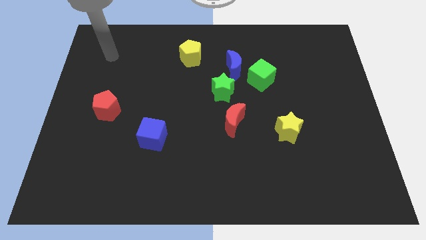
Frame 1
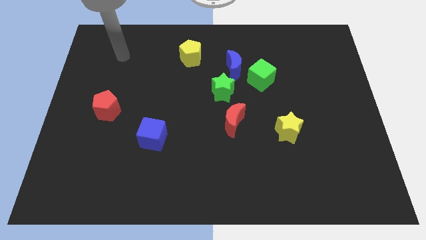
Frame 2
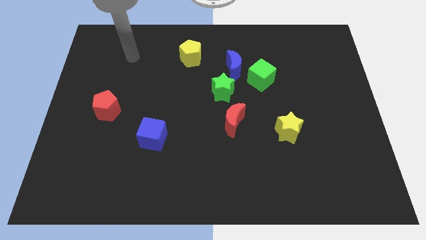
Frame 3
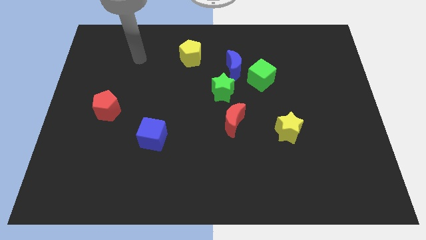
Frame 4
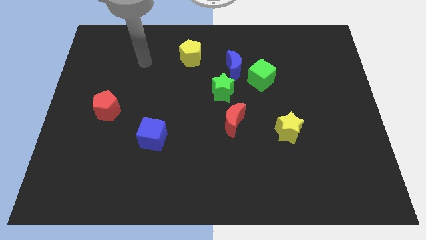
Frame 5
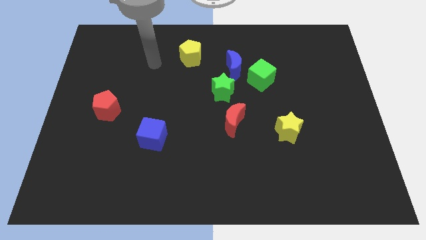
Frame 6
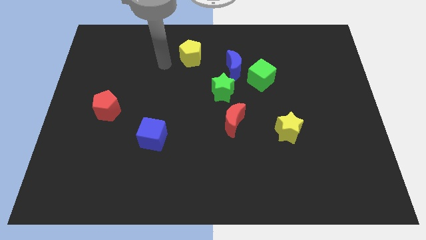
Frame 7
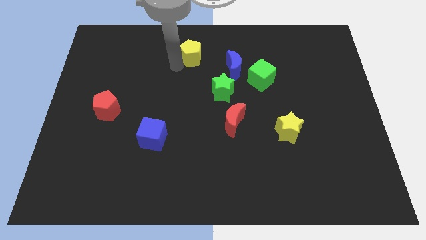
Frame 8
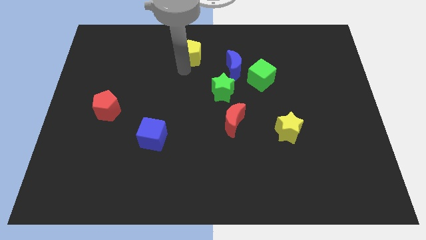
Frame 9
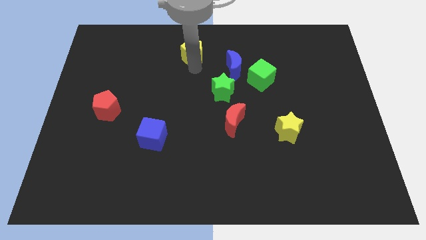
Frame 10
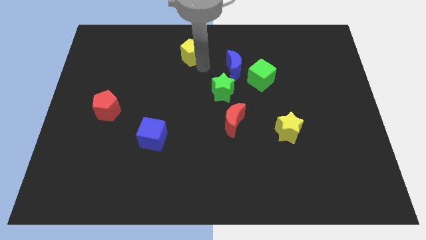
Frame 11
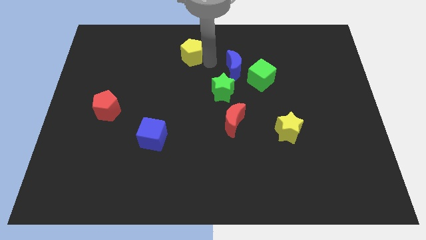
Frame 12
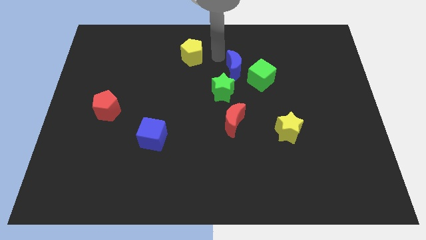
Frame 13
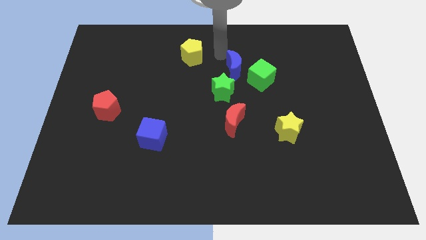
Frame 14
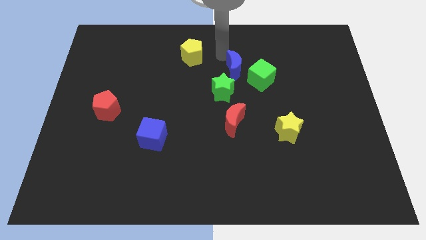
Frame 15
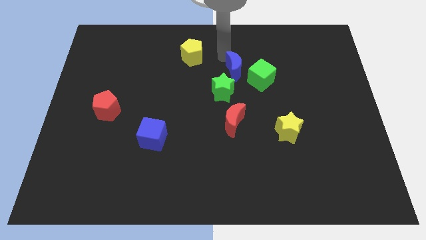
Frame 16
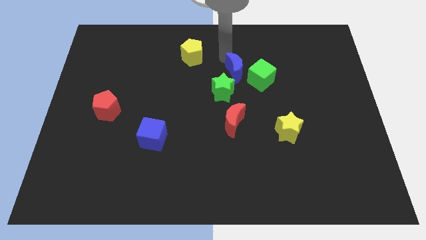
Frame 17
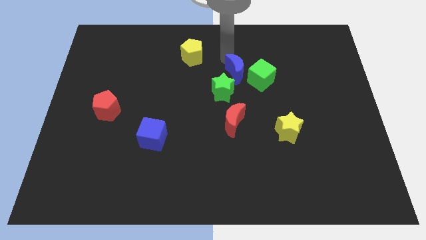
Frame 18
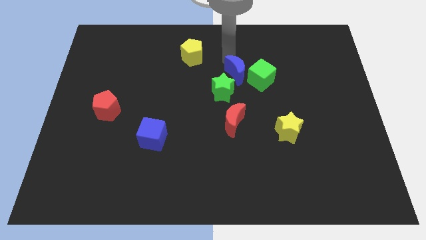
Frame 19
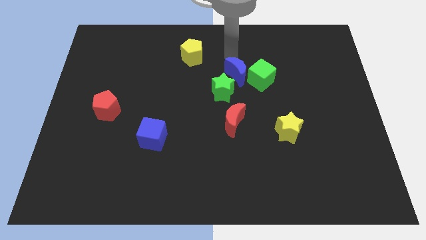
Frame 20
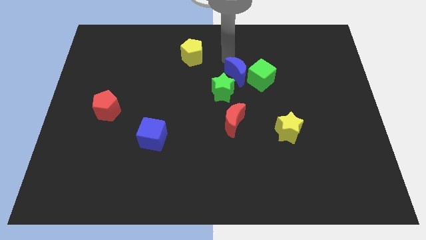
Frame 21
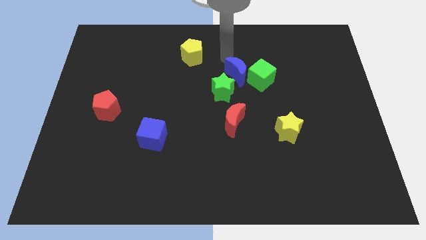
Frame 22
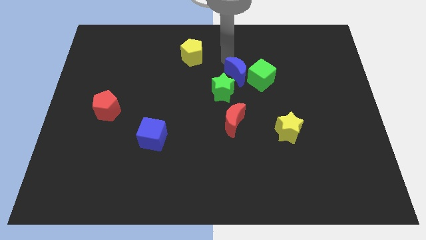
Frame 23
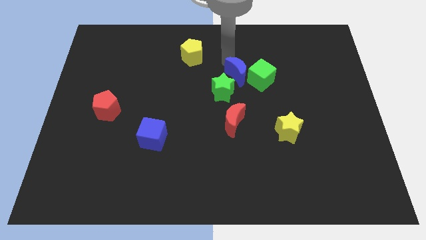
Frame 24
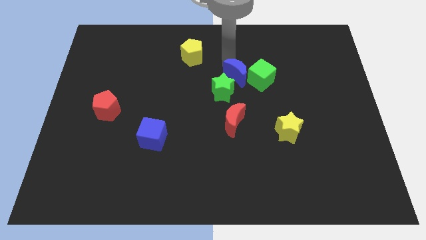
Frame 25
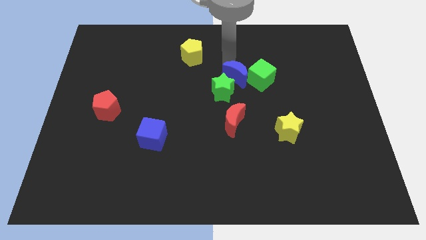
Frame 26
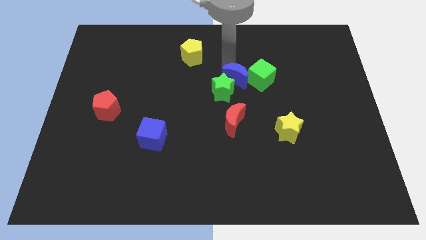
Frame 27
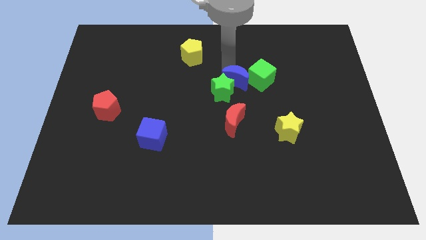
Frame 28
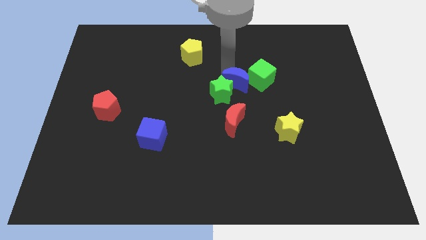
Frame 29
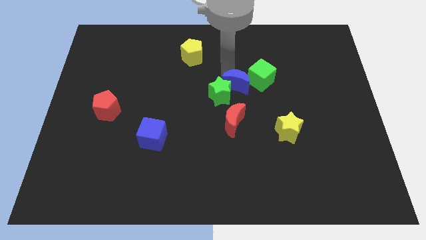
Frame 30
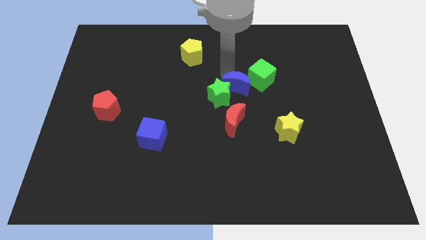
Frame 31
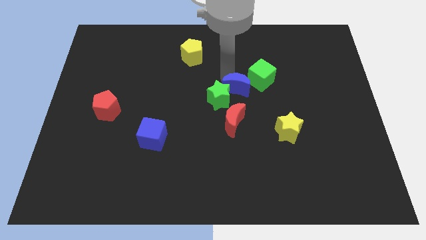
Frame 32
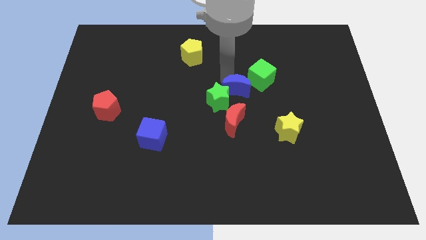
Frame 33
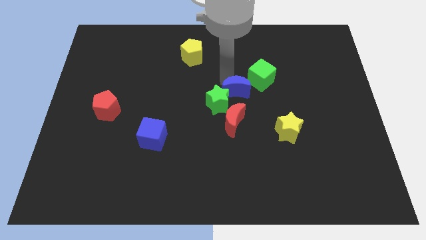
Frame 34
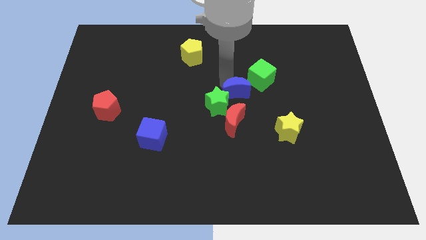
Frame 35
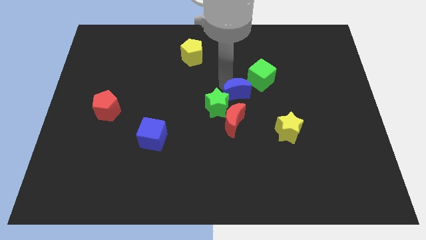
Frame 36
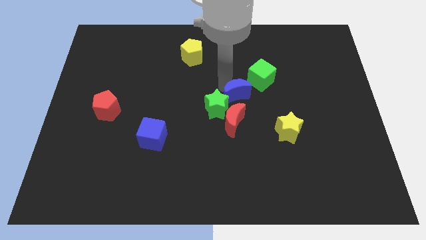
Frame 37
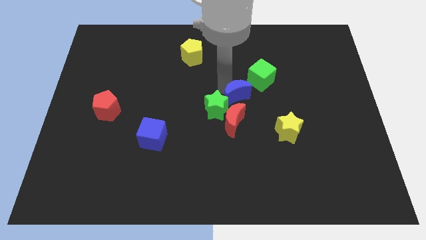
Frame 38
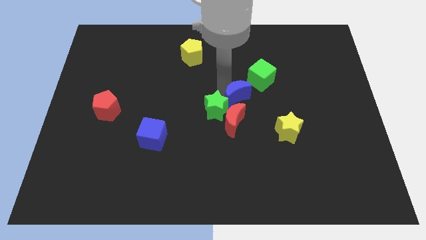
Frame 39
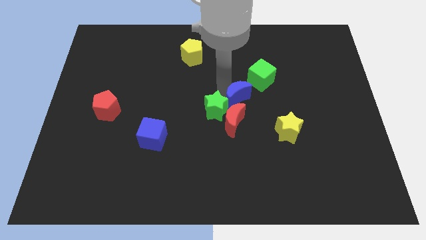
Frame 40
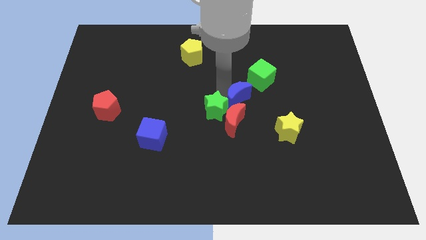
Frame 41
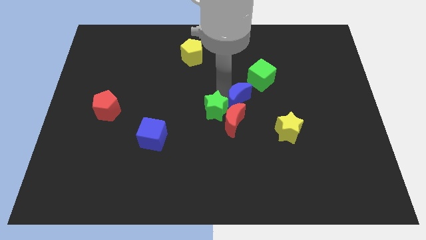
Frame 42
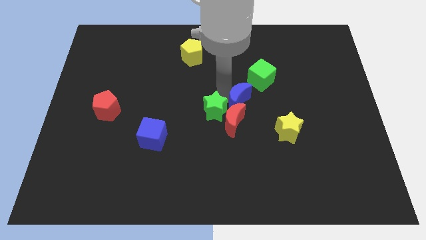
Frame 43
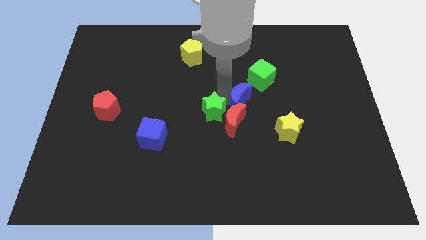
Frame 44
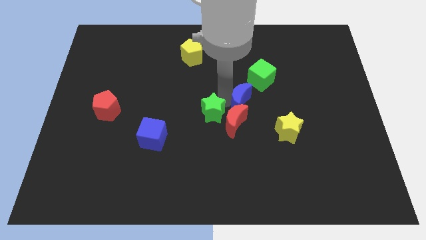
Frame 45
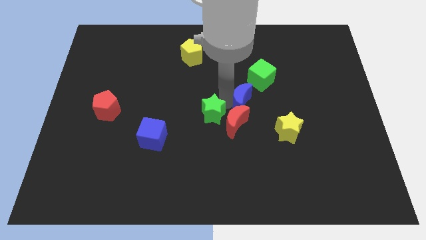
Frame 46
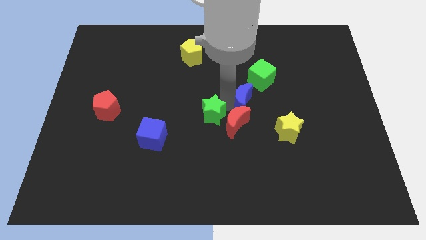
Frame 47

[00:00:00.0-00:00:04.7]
slightly push the blue moon downwards and to the right

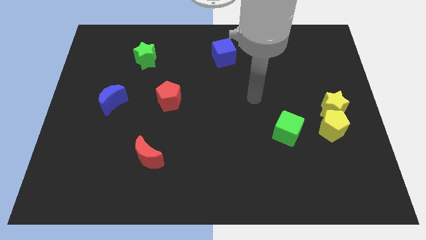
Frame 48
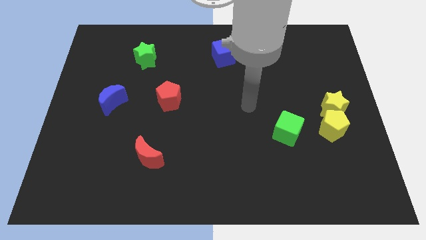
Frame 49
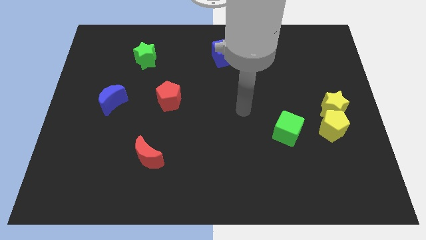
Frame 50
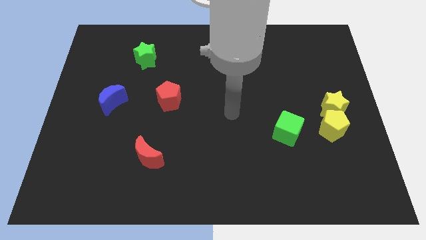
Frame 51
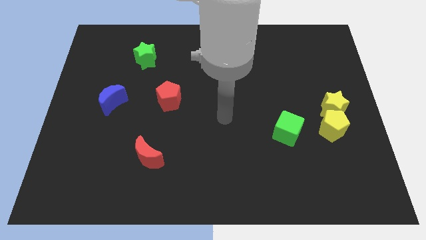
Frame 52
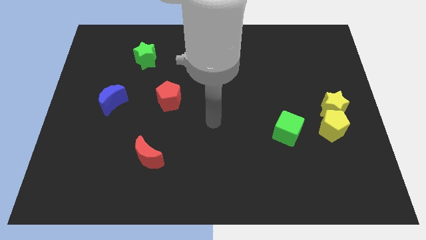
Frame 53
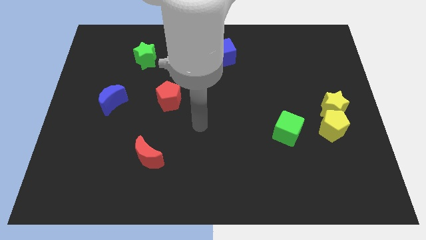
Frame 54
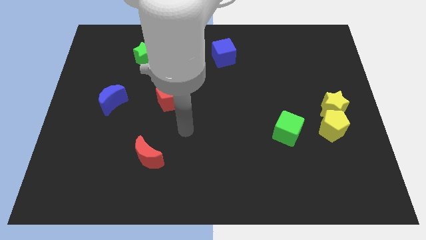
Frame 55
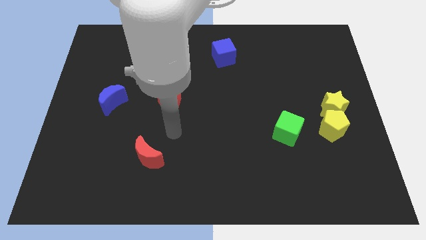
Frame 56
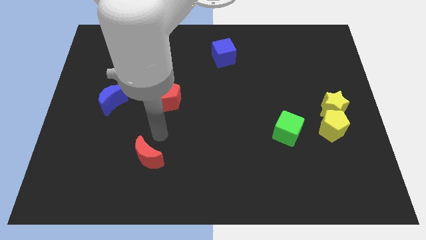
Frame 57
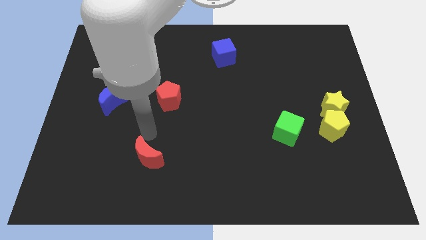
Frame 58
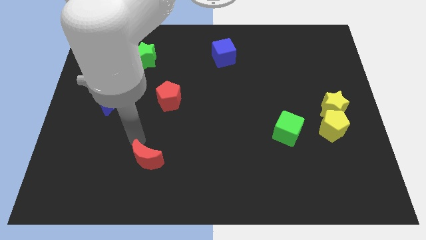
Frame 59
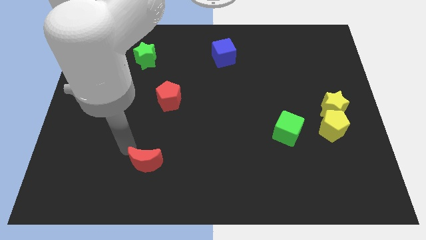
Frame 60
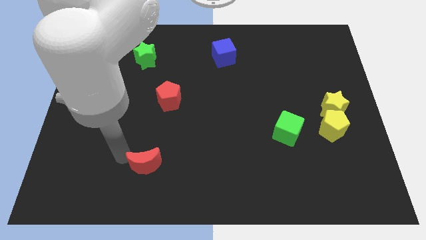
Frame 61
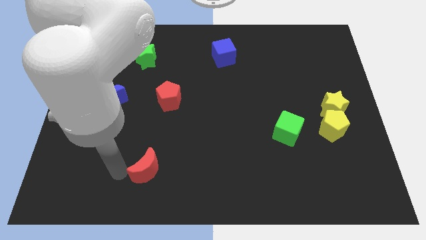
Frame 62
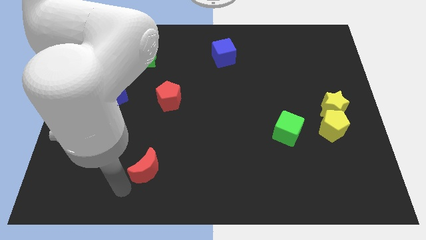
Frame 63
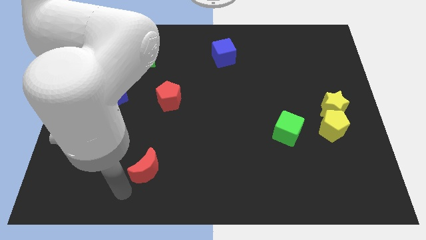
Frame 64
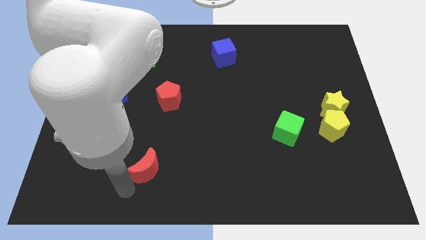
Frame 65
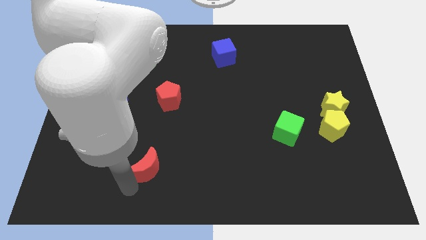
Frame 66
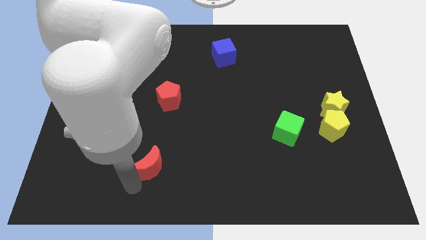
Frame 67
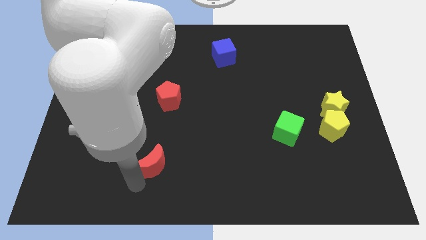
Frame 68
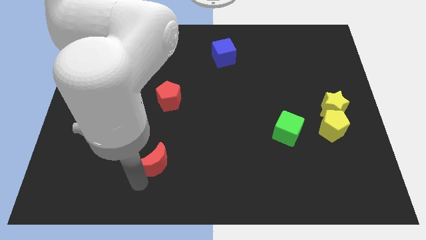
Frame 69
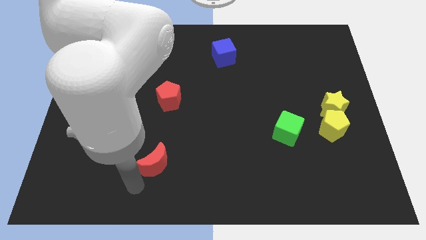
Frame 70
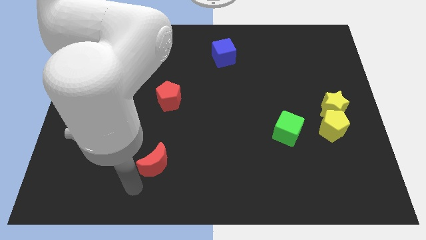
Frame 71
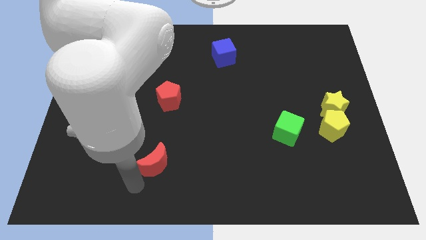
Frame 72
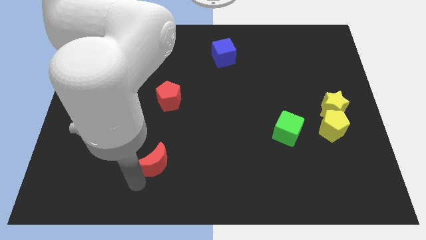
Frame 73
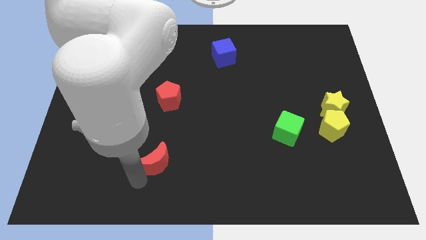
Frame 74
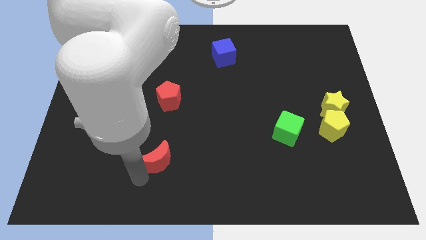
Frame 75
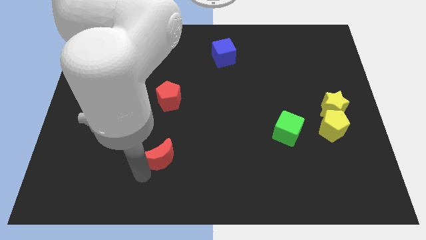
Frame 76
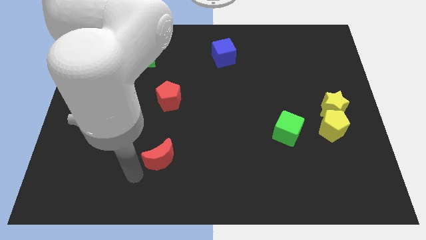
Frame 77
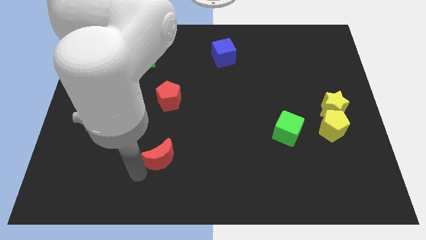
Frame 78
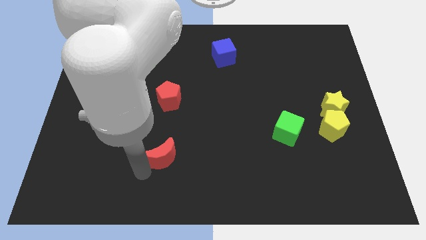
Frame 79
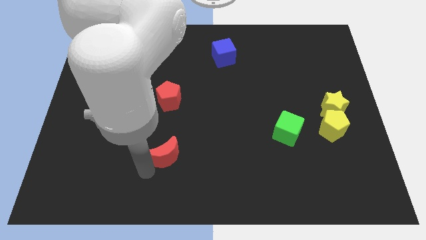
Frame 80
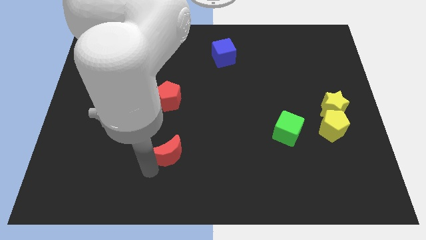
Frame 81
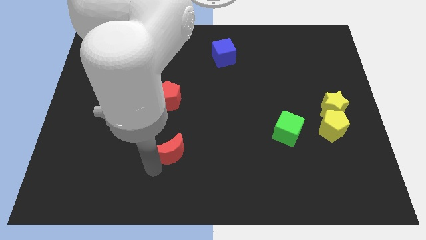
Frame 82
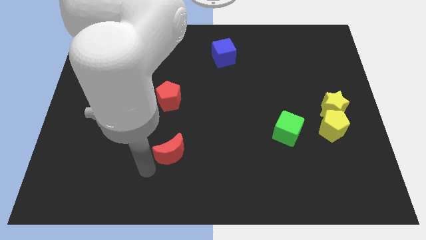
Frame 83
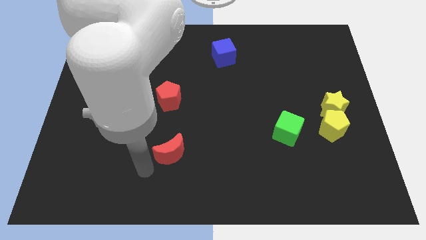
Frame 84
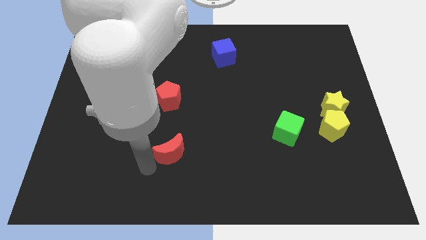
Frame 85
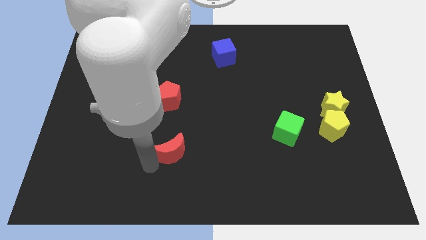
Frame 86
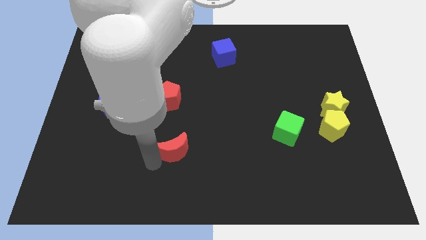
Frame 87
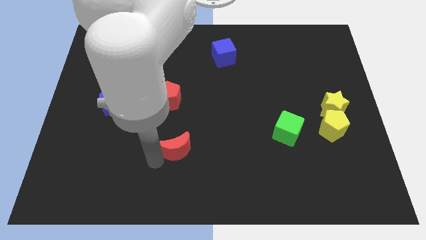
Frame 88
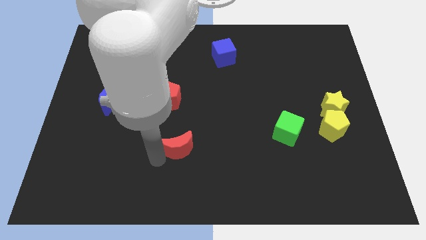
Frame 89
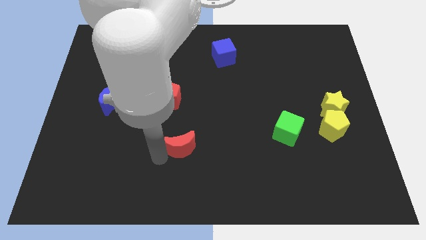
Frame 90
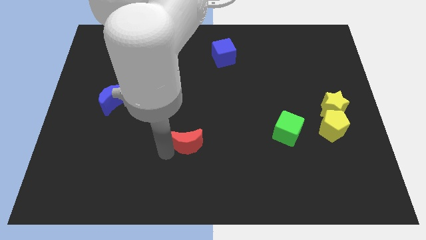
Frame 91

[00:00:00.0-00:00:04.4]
push the red moon upwards and to the right diagonally a little
